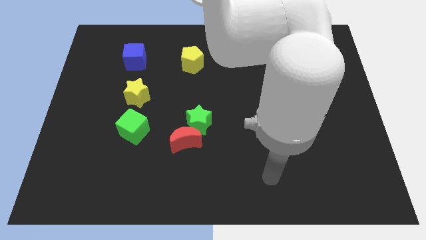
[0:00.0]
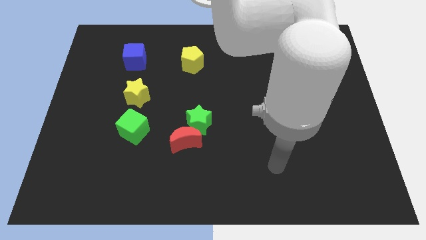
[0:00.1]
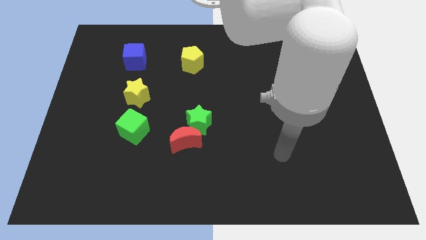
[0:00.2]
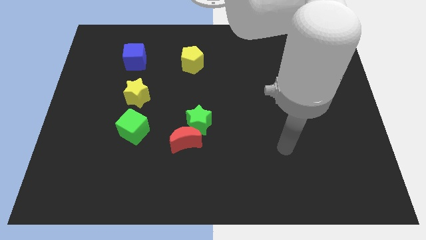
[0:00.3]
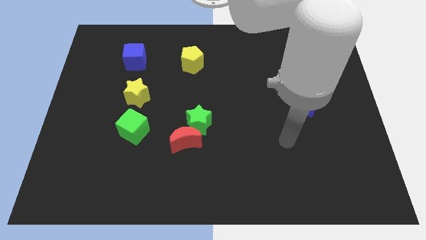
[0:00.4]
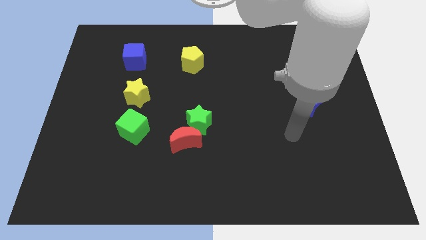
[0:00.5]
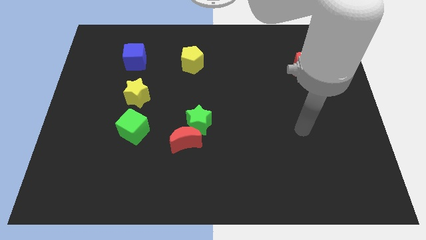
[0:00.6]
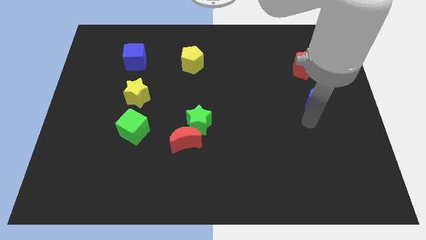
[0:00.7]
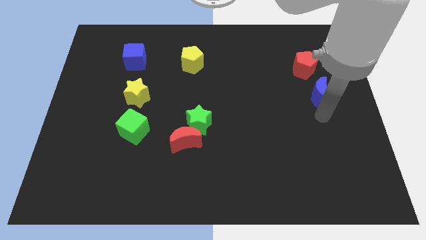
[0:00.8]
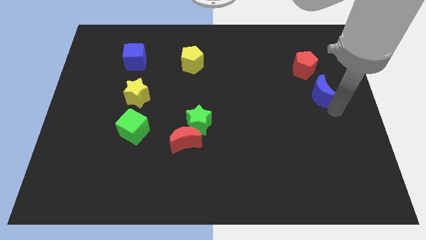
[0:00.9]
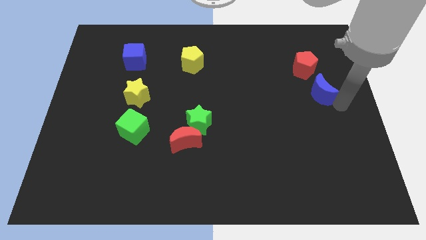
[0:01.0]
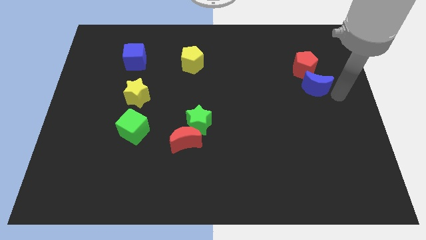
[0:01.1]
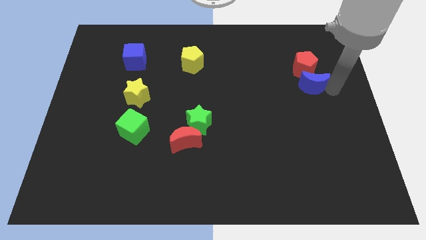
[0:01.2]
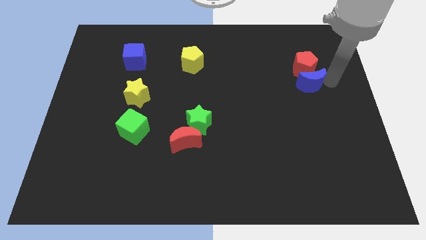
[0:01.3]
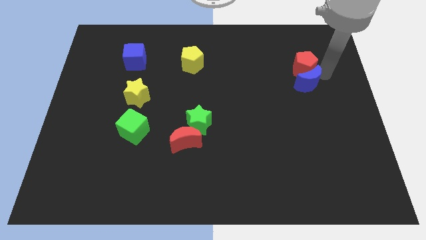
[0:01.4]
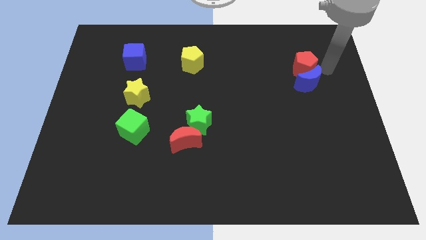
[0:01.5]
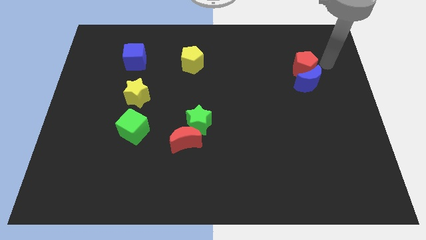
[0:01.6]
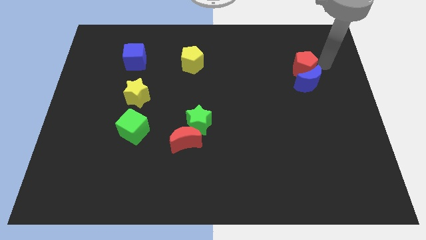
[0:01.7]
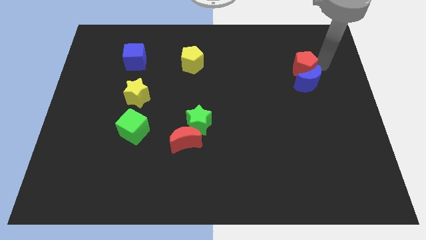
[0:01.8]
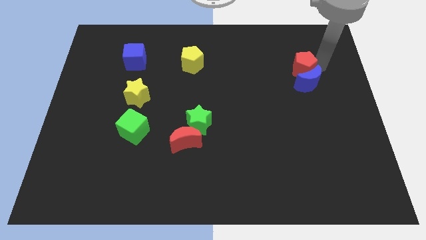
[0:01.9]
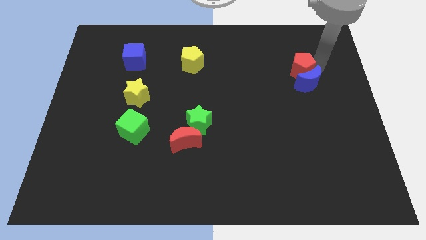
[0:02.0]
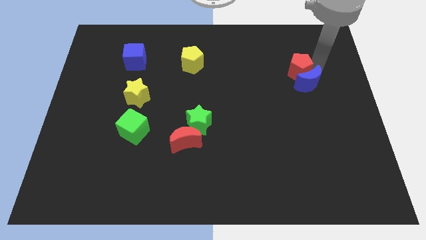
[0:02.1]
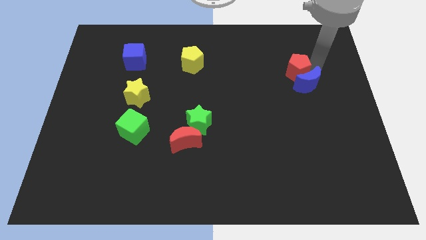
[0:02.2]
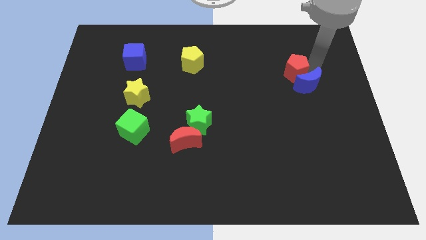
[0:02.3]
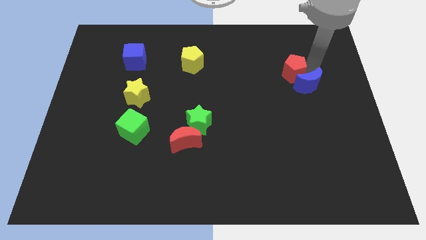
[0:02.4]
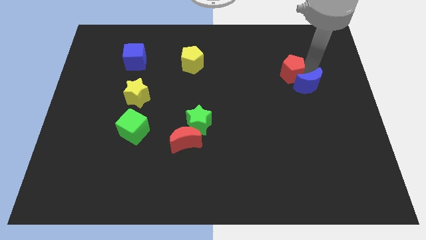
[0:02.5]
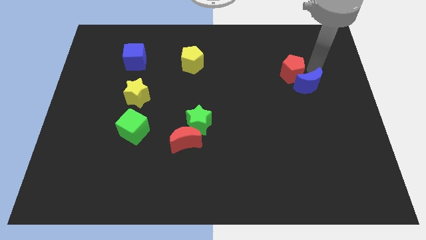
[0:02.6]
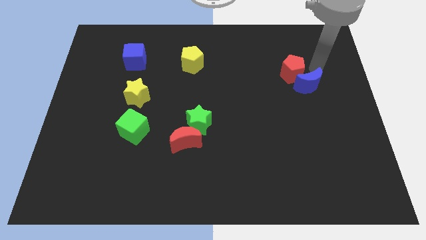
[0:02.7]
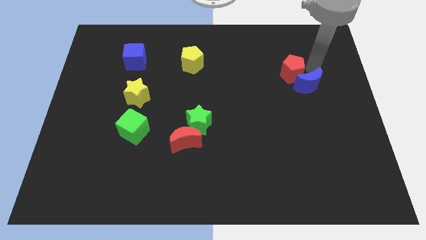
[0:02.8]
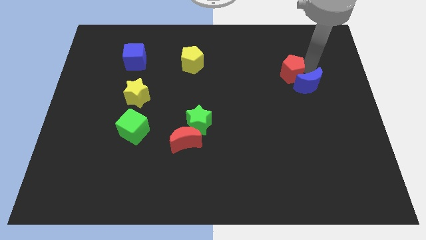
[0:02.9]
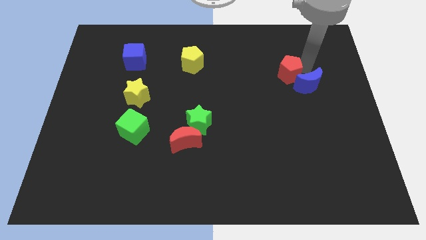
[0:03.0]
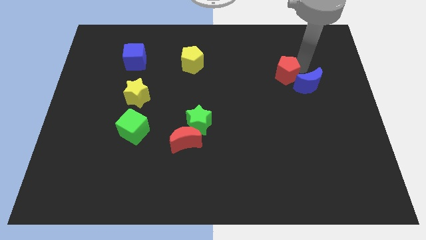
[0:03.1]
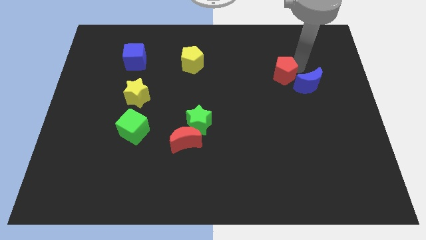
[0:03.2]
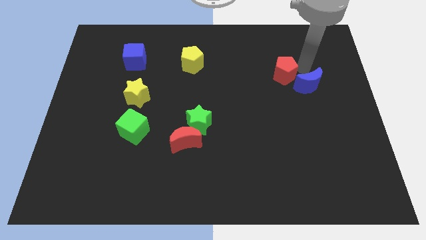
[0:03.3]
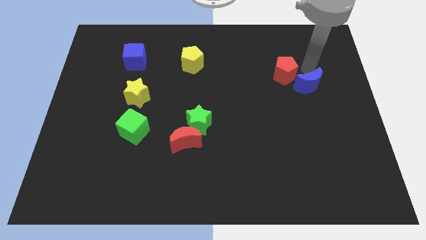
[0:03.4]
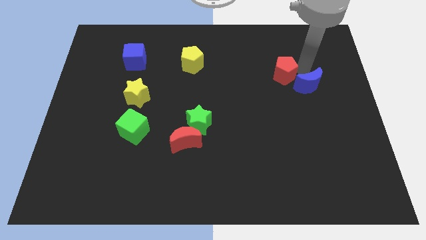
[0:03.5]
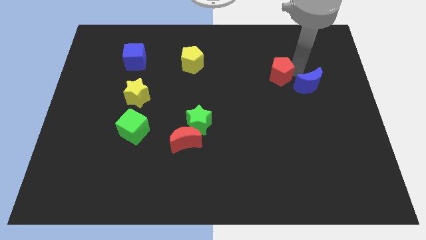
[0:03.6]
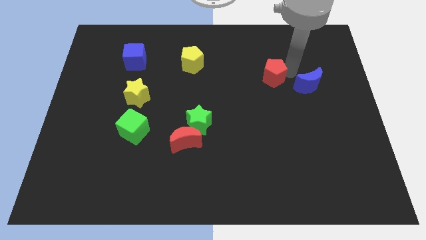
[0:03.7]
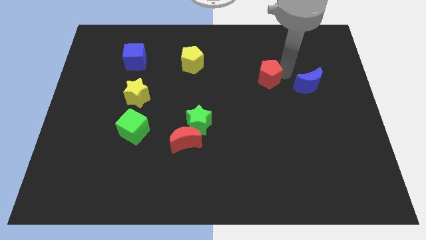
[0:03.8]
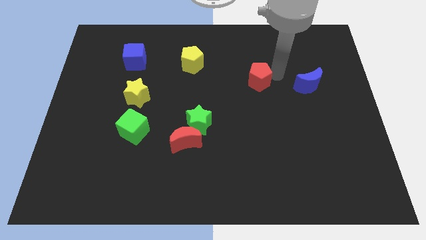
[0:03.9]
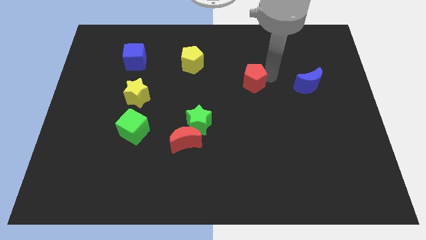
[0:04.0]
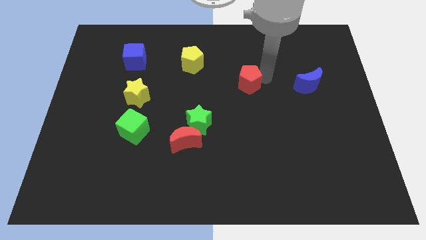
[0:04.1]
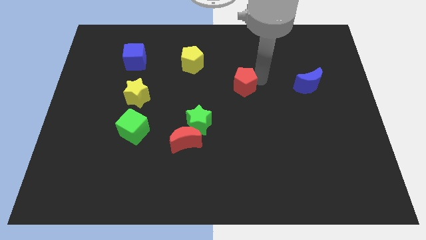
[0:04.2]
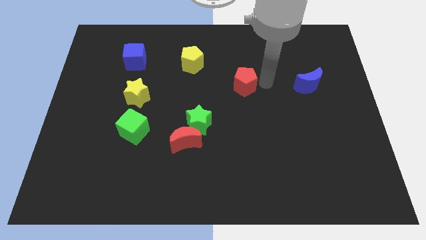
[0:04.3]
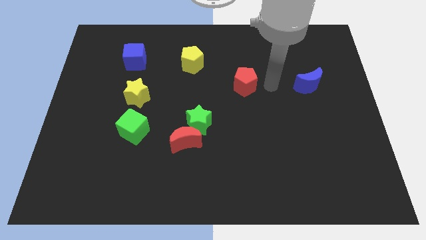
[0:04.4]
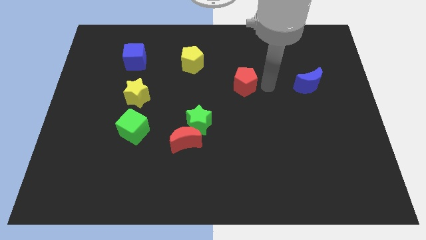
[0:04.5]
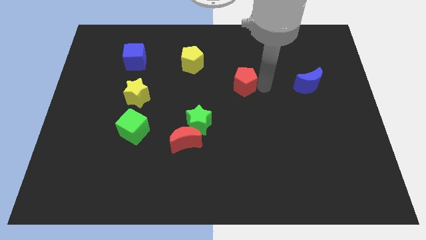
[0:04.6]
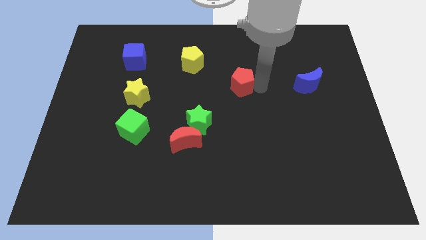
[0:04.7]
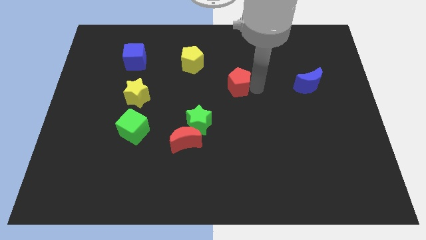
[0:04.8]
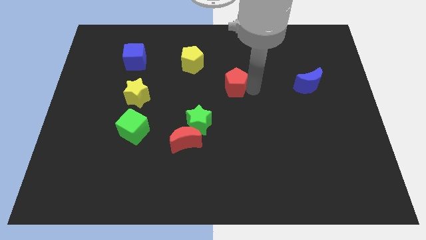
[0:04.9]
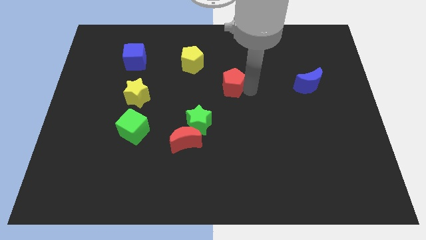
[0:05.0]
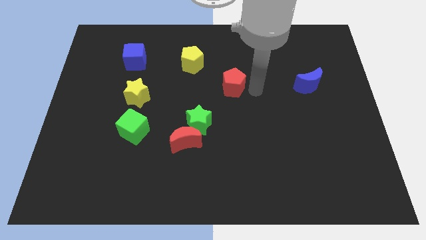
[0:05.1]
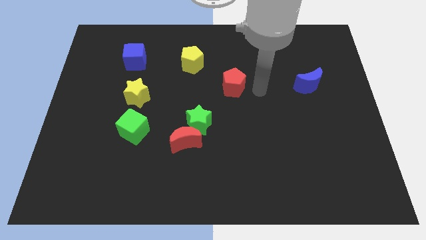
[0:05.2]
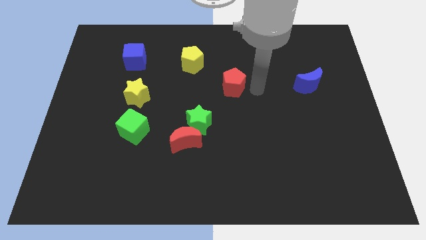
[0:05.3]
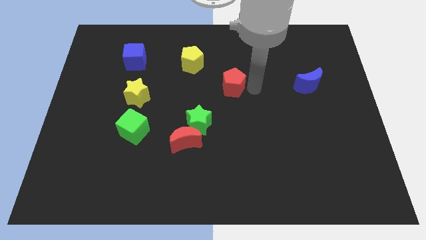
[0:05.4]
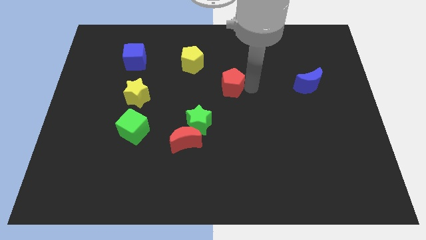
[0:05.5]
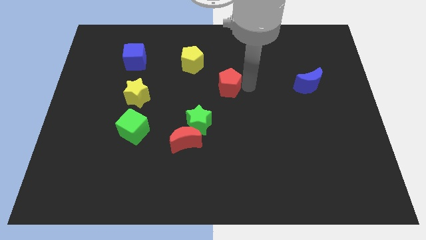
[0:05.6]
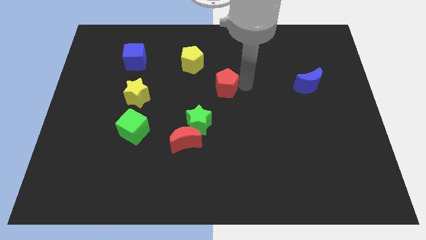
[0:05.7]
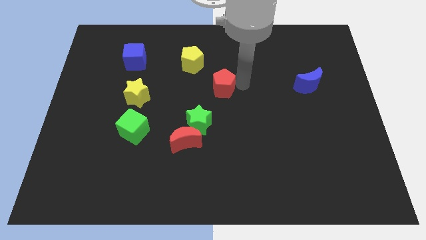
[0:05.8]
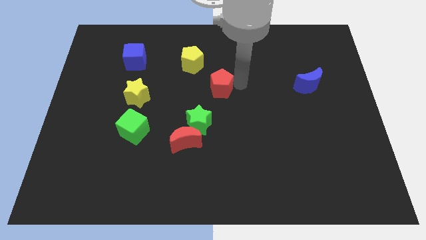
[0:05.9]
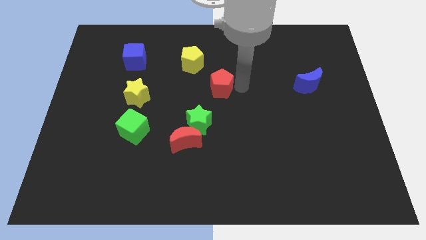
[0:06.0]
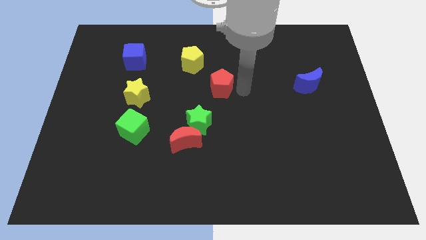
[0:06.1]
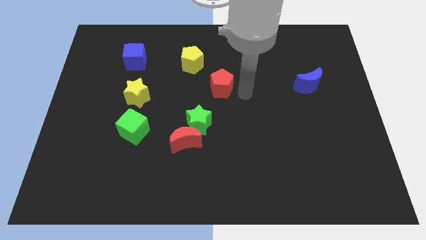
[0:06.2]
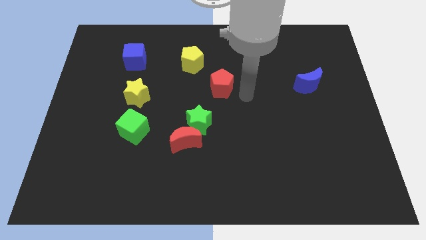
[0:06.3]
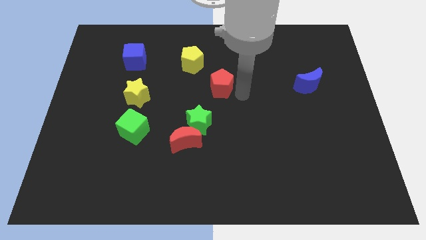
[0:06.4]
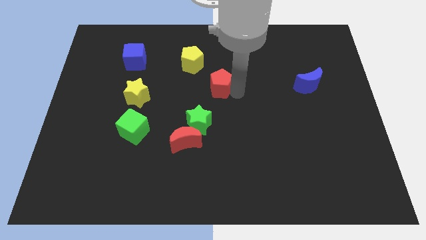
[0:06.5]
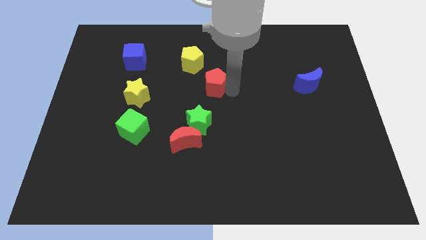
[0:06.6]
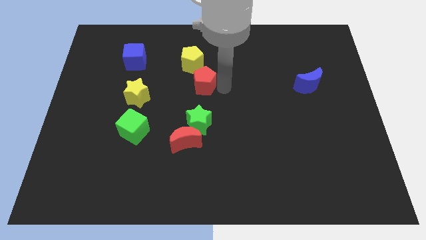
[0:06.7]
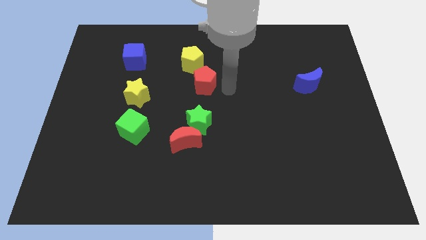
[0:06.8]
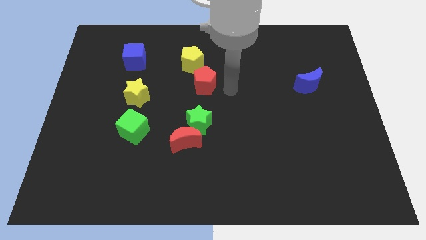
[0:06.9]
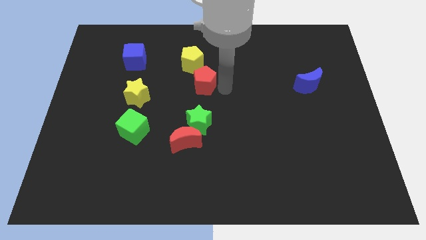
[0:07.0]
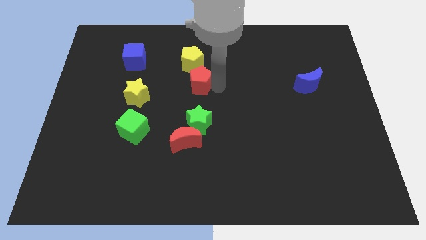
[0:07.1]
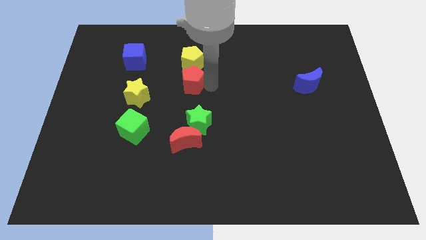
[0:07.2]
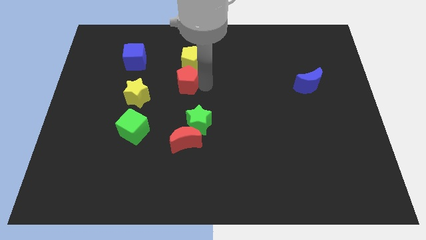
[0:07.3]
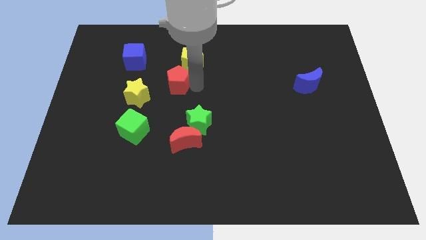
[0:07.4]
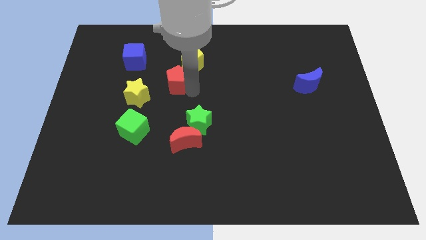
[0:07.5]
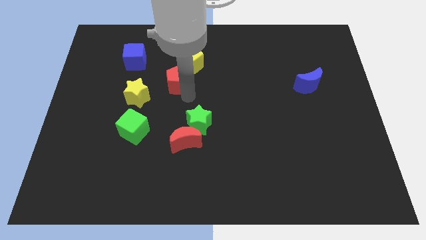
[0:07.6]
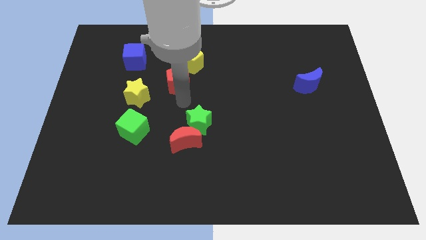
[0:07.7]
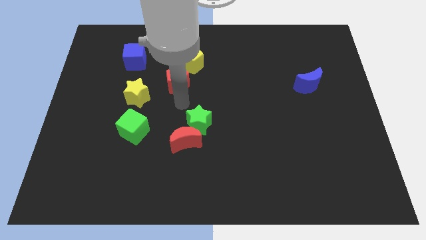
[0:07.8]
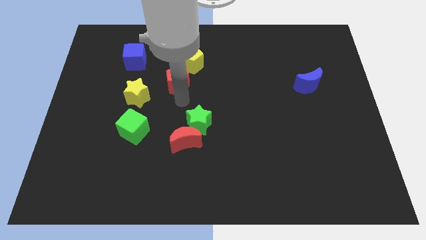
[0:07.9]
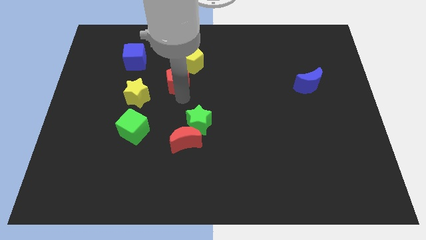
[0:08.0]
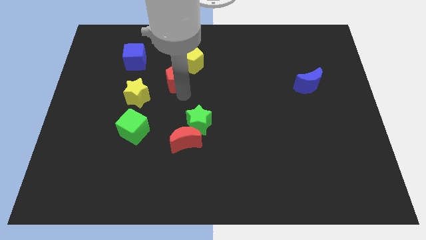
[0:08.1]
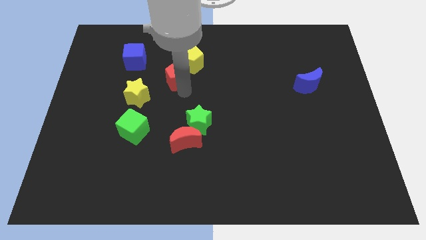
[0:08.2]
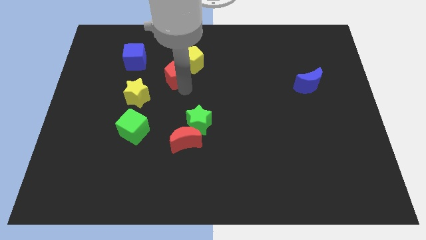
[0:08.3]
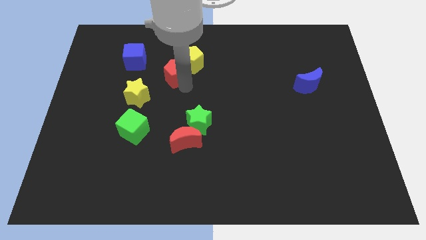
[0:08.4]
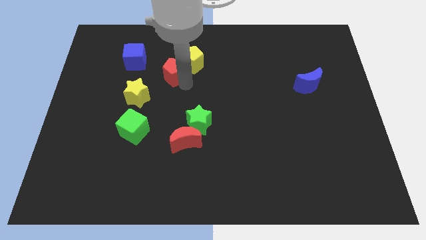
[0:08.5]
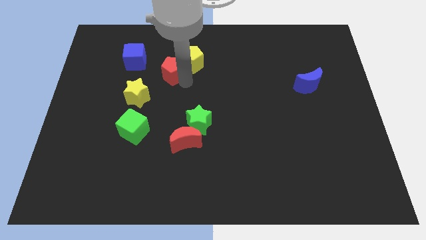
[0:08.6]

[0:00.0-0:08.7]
push the red pentagon just right of the blue cube
